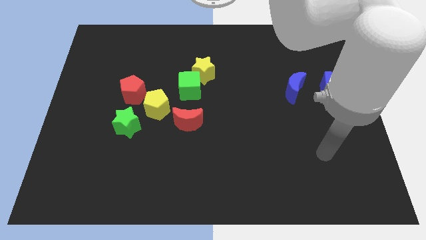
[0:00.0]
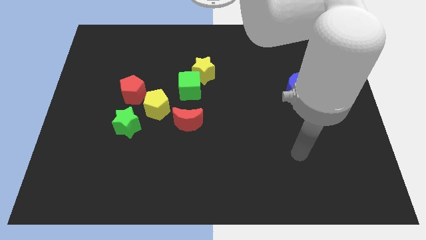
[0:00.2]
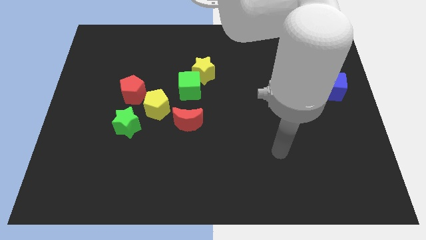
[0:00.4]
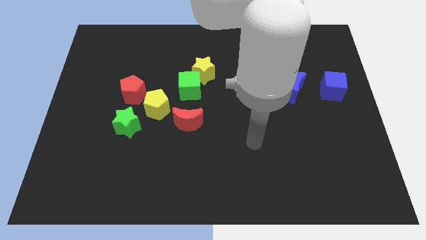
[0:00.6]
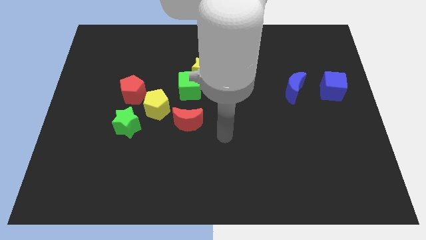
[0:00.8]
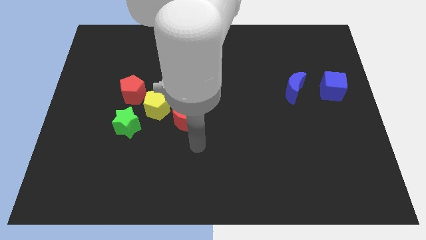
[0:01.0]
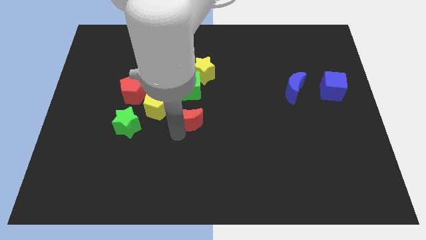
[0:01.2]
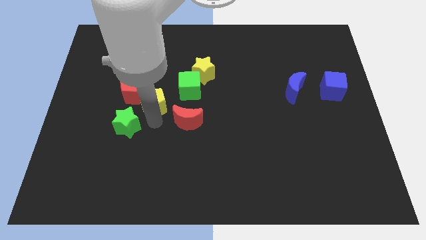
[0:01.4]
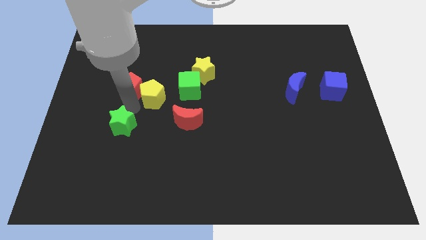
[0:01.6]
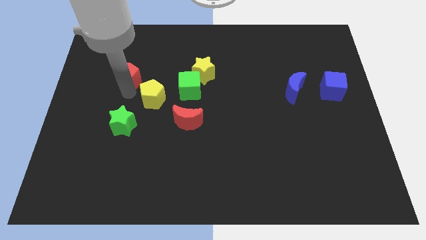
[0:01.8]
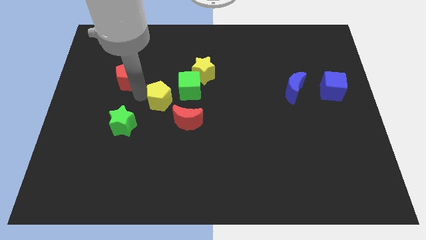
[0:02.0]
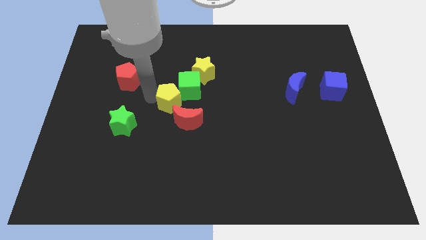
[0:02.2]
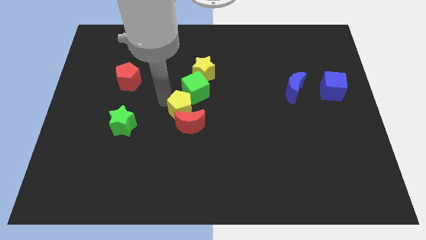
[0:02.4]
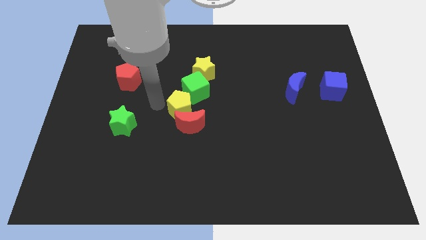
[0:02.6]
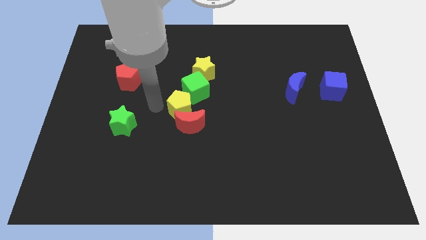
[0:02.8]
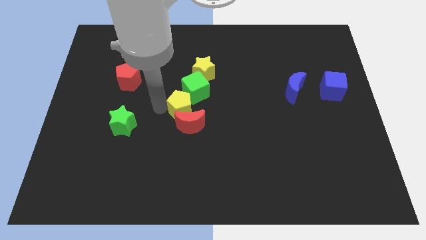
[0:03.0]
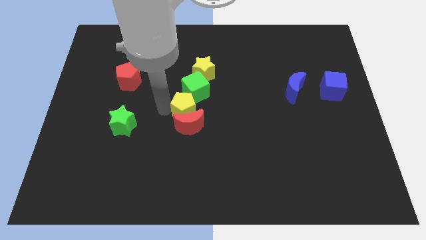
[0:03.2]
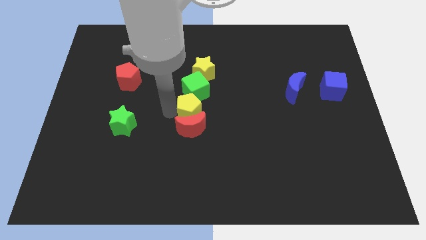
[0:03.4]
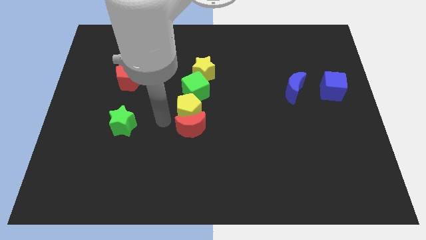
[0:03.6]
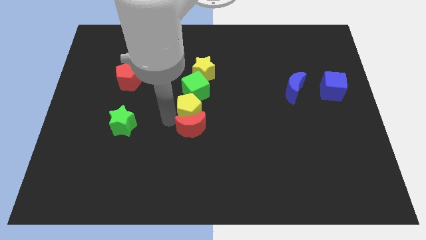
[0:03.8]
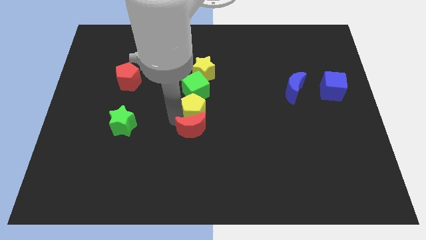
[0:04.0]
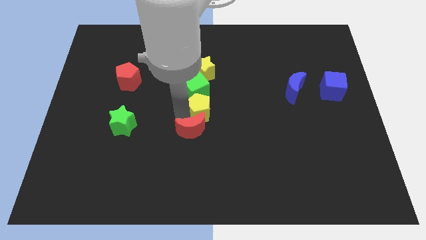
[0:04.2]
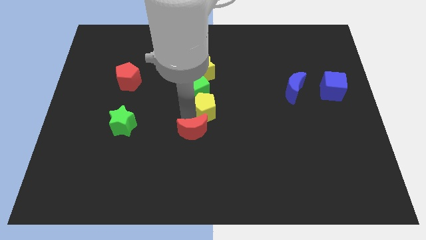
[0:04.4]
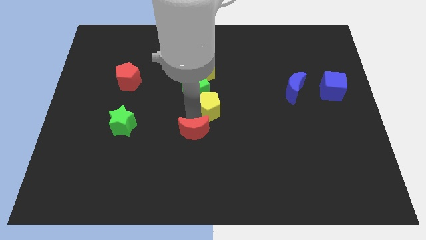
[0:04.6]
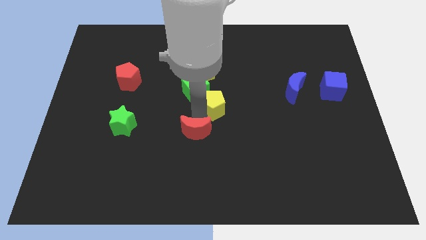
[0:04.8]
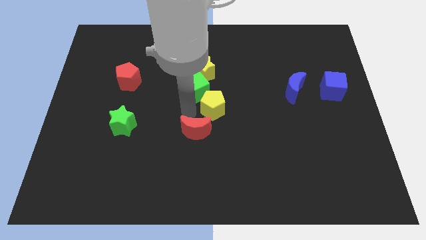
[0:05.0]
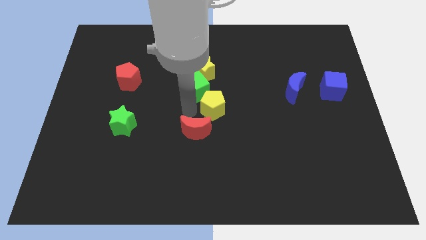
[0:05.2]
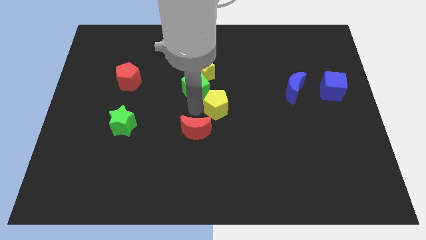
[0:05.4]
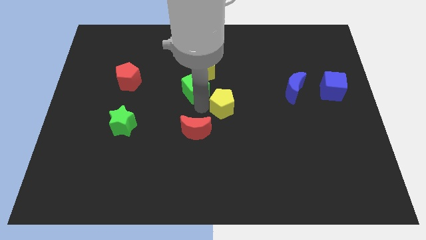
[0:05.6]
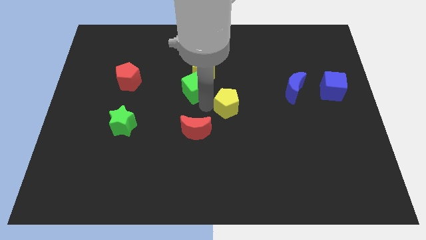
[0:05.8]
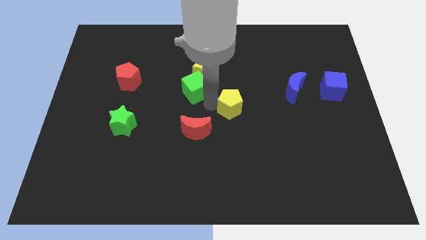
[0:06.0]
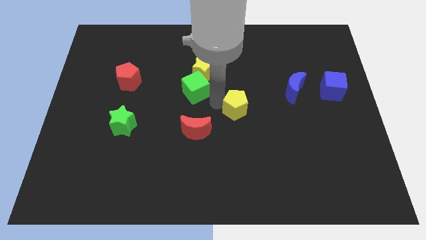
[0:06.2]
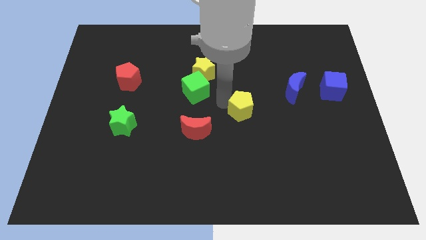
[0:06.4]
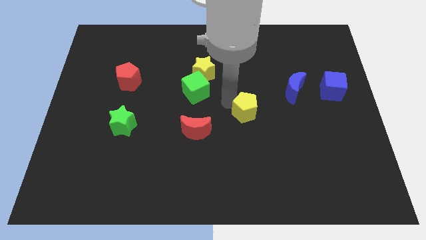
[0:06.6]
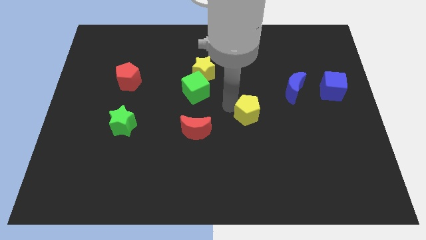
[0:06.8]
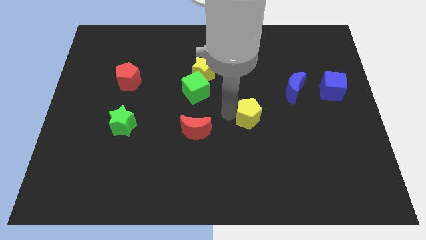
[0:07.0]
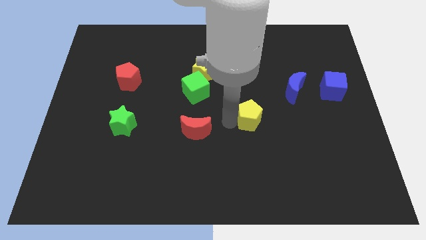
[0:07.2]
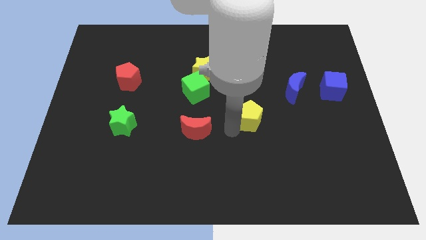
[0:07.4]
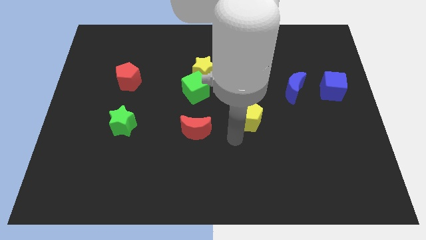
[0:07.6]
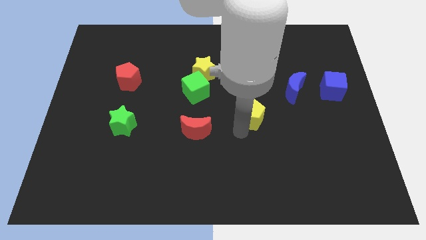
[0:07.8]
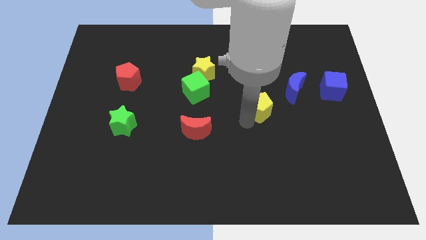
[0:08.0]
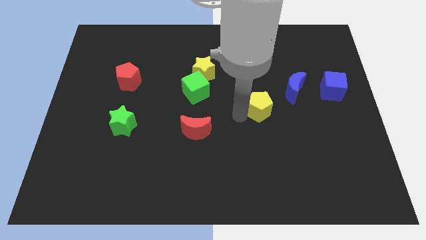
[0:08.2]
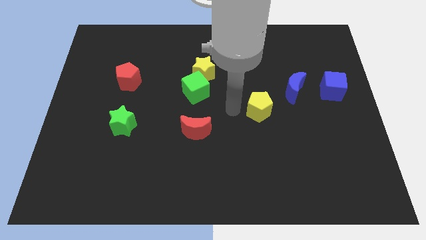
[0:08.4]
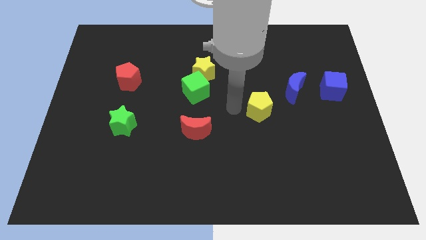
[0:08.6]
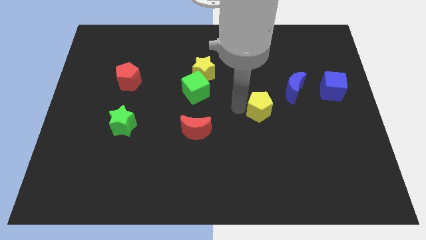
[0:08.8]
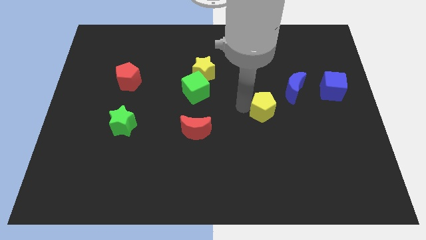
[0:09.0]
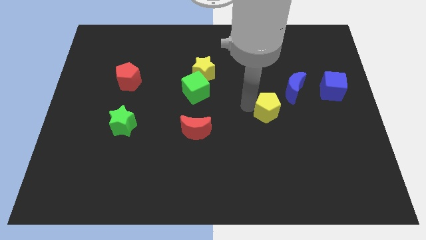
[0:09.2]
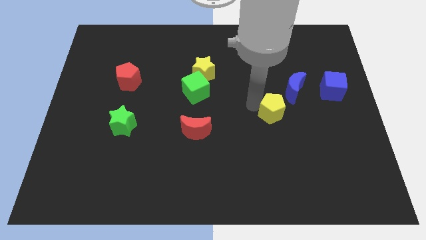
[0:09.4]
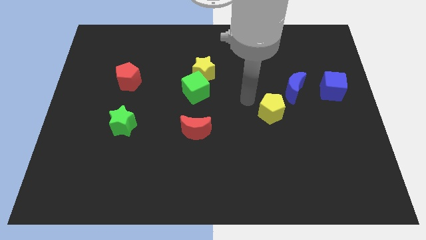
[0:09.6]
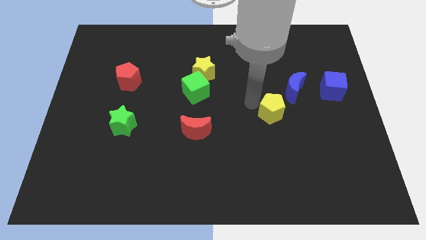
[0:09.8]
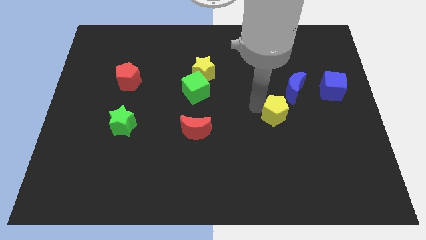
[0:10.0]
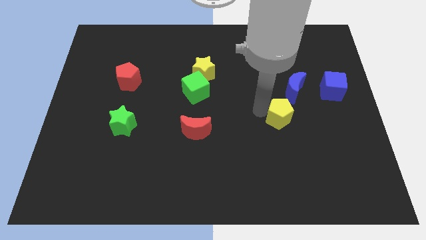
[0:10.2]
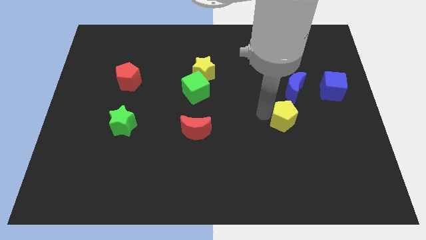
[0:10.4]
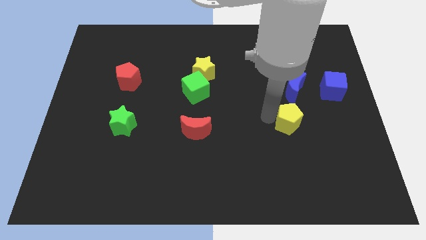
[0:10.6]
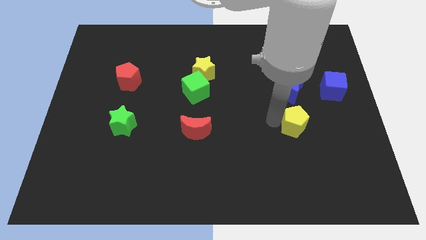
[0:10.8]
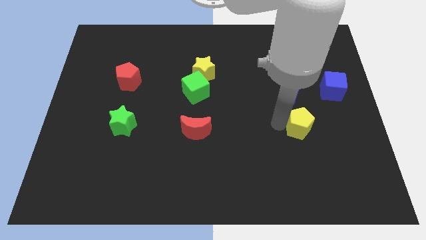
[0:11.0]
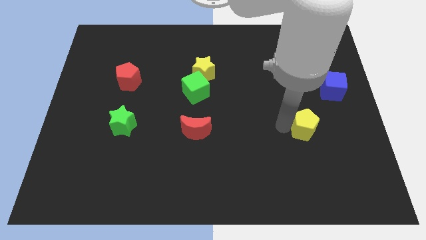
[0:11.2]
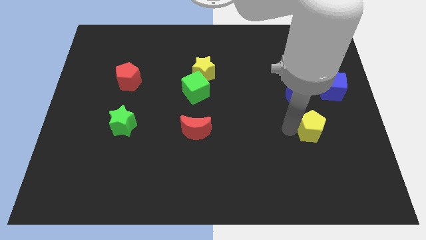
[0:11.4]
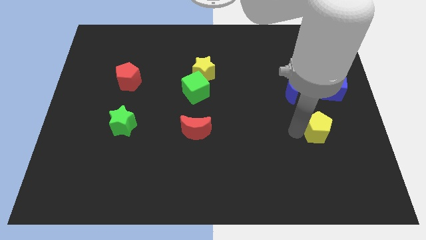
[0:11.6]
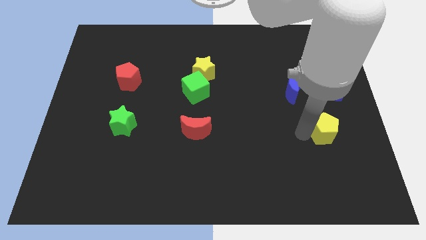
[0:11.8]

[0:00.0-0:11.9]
slide the yellow pentagon to the bottom of the blue cube

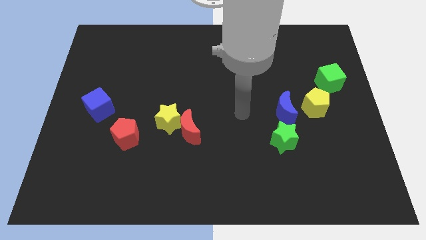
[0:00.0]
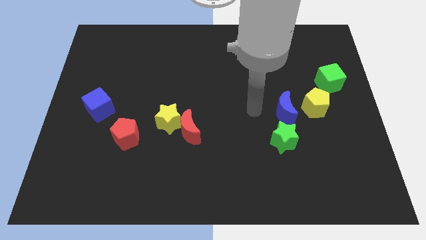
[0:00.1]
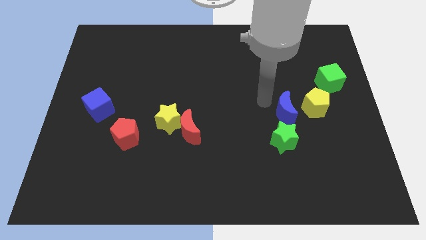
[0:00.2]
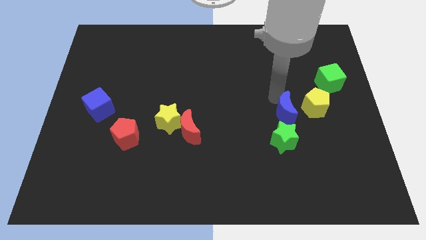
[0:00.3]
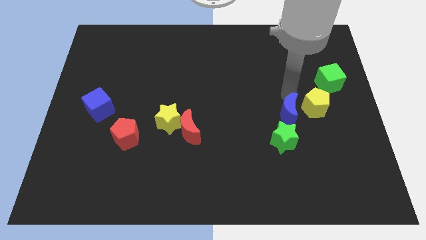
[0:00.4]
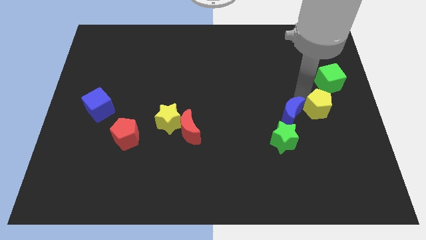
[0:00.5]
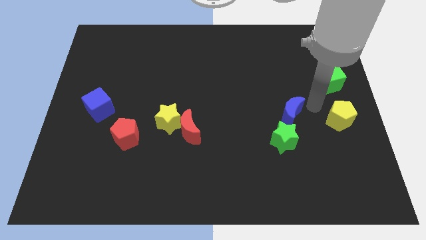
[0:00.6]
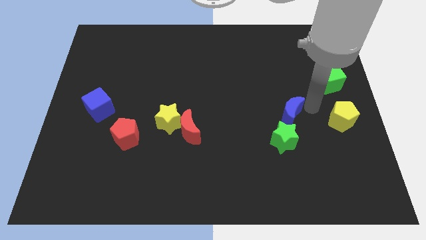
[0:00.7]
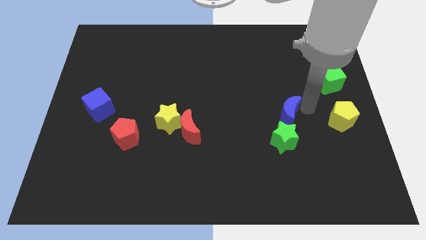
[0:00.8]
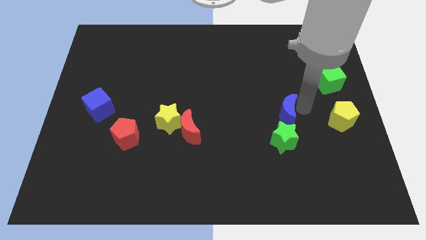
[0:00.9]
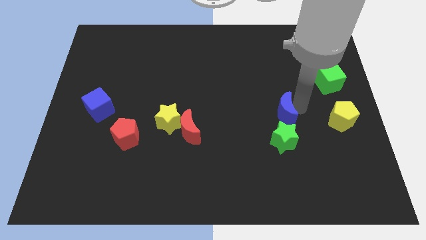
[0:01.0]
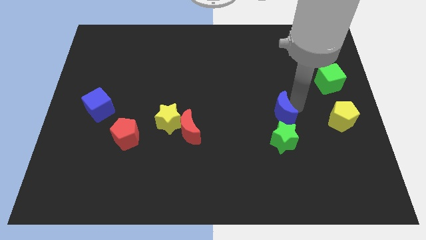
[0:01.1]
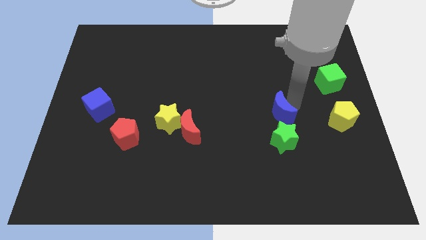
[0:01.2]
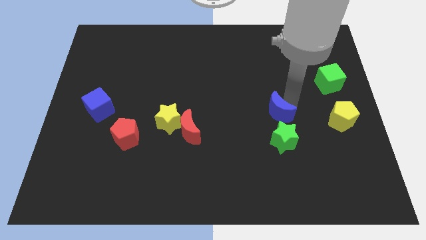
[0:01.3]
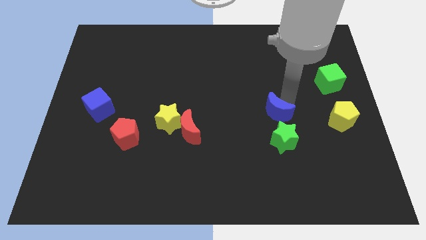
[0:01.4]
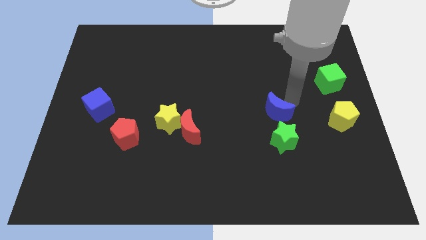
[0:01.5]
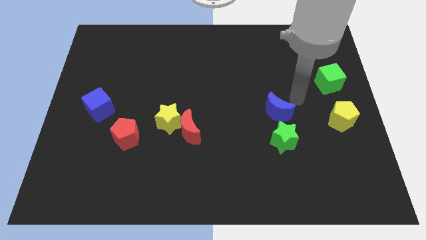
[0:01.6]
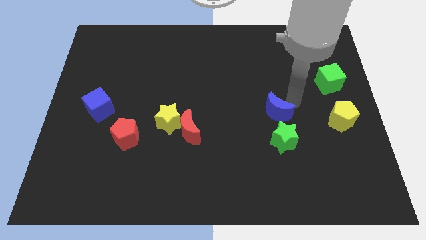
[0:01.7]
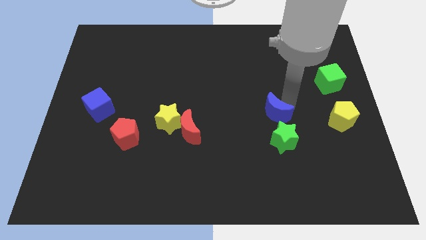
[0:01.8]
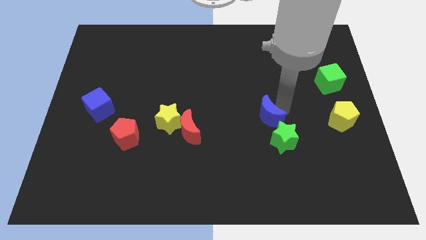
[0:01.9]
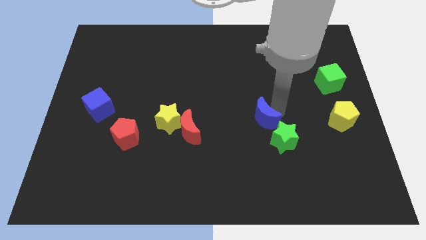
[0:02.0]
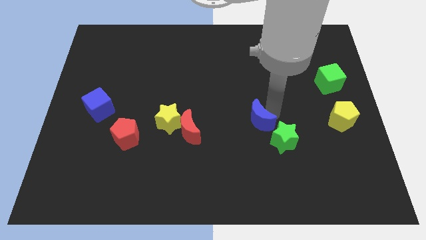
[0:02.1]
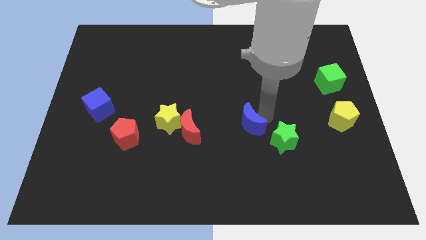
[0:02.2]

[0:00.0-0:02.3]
push the blue moon just left of the green star
